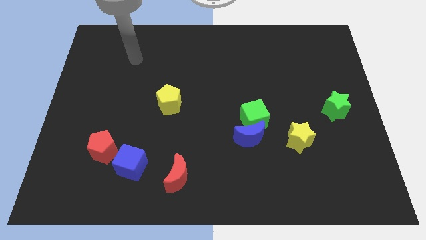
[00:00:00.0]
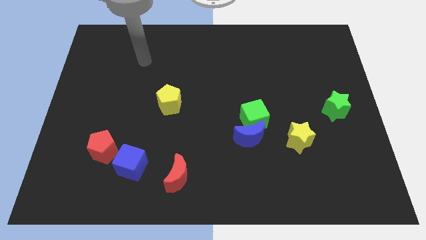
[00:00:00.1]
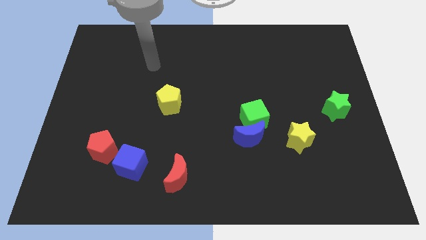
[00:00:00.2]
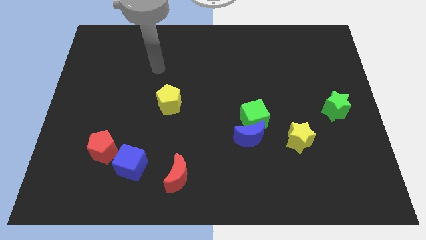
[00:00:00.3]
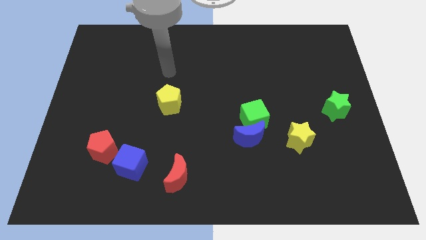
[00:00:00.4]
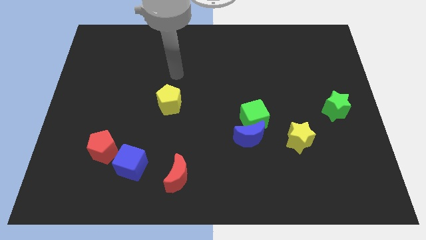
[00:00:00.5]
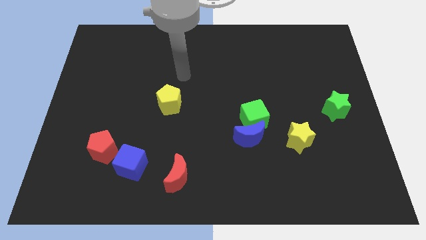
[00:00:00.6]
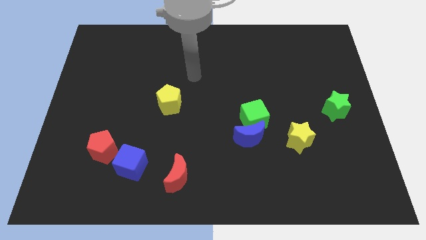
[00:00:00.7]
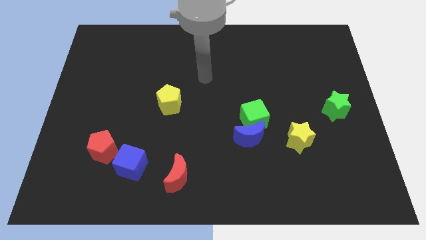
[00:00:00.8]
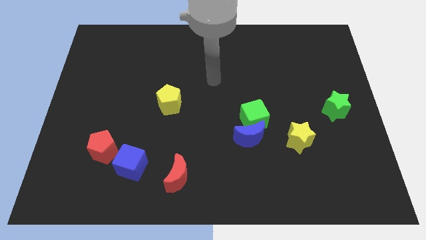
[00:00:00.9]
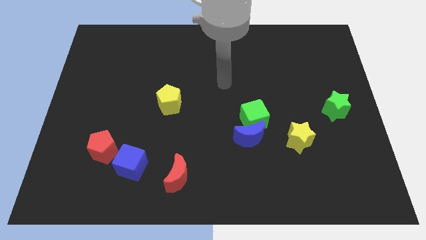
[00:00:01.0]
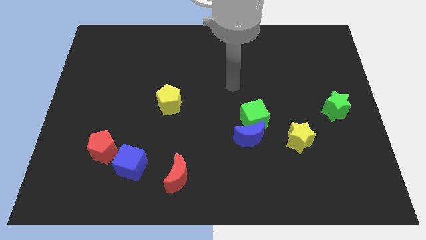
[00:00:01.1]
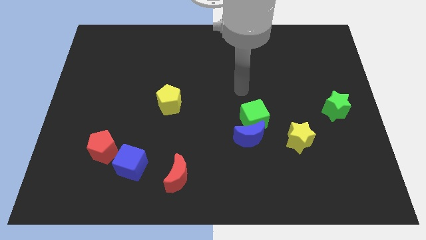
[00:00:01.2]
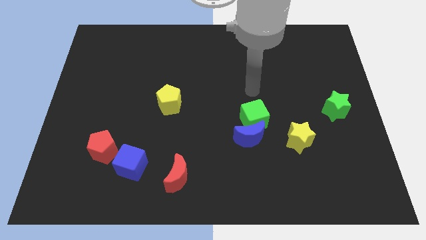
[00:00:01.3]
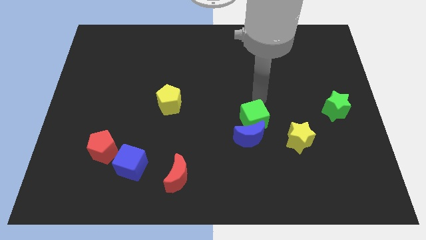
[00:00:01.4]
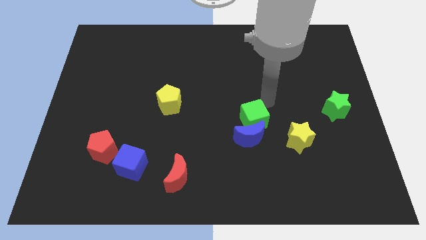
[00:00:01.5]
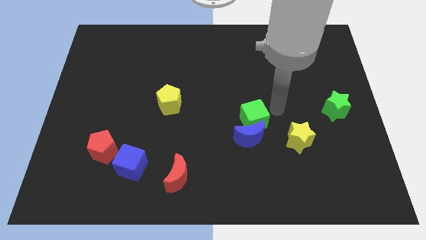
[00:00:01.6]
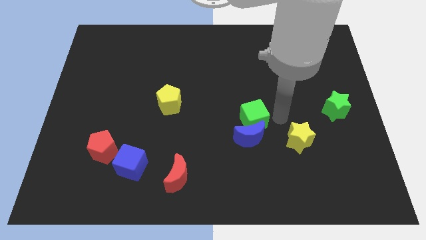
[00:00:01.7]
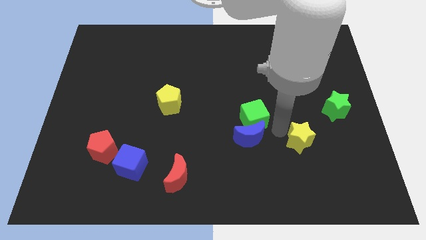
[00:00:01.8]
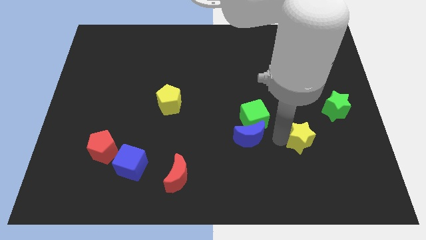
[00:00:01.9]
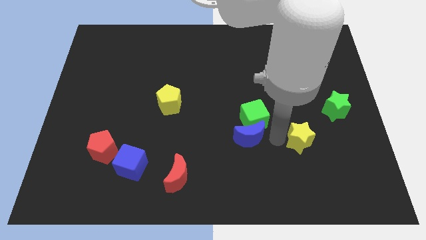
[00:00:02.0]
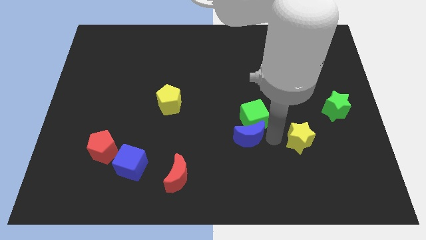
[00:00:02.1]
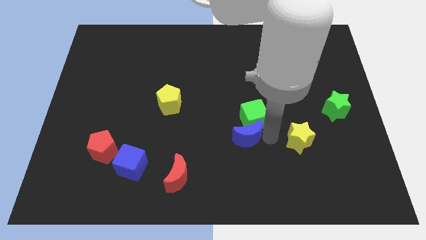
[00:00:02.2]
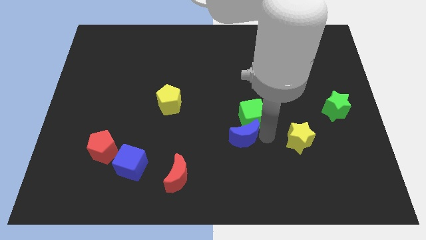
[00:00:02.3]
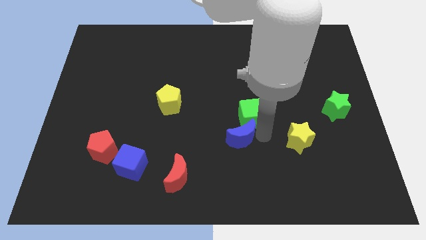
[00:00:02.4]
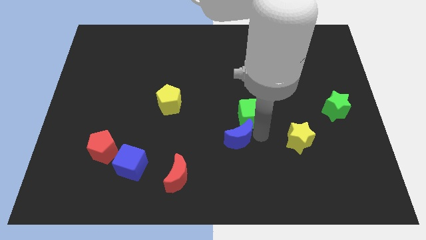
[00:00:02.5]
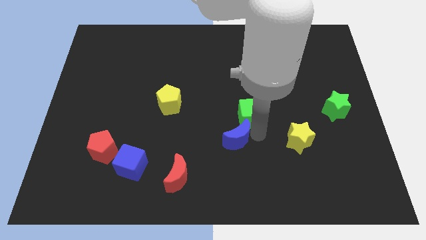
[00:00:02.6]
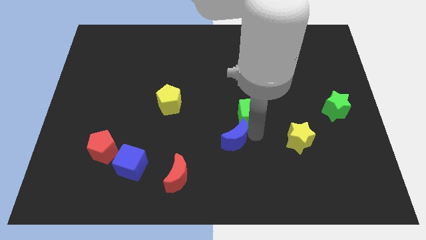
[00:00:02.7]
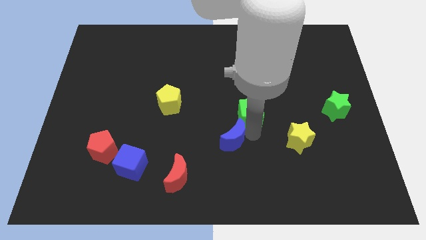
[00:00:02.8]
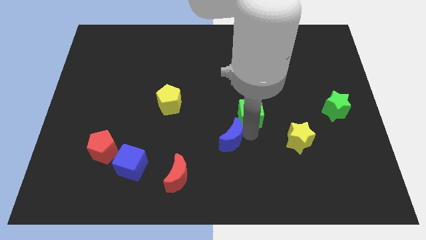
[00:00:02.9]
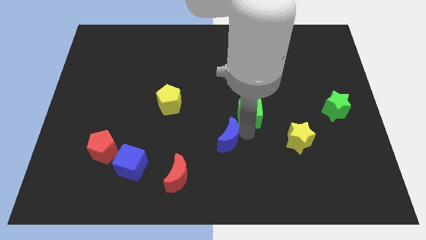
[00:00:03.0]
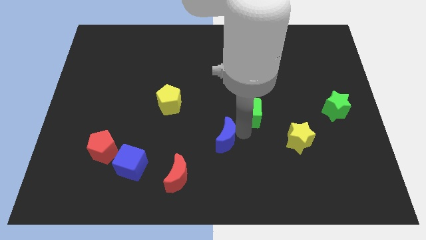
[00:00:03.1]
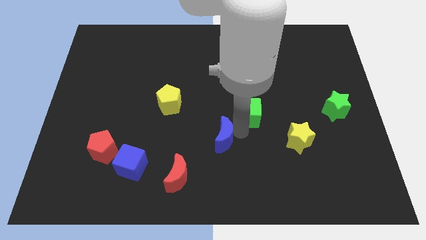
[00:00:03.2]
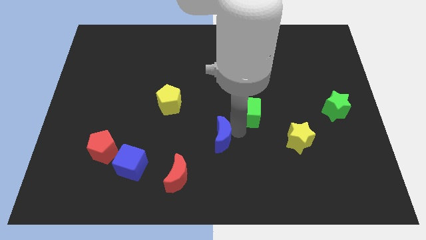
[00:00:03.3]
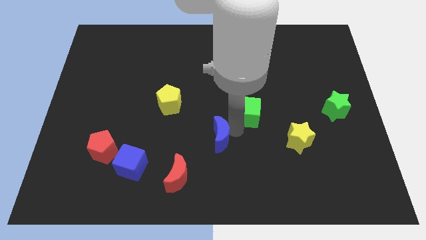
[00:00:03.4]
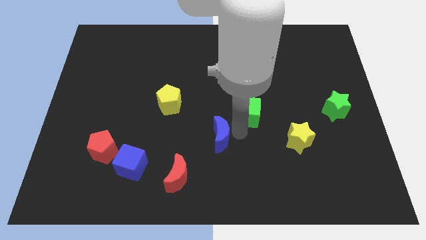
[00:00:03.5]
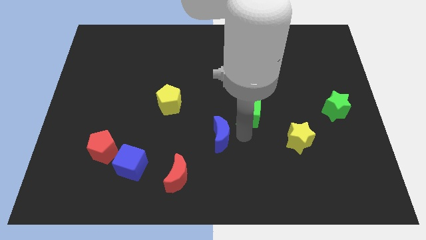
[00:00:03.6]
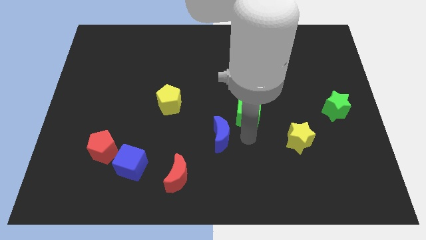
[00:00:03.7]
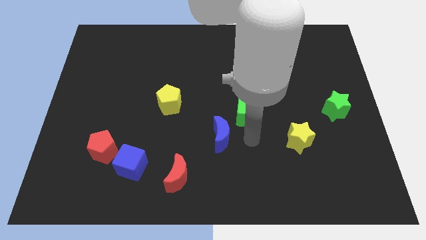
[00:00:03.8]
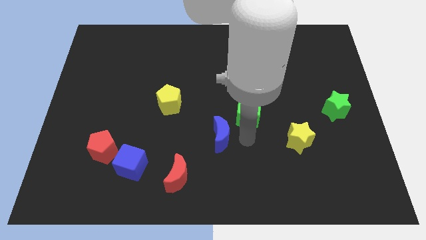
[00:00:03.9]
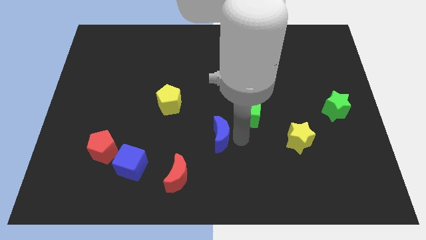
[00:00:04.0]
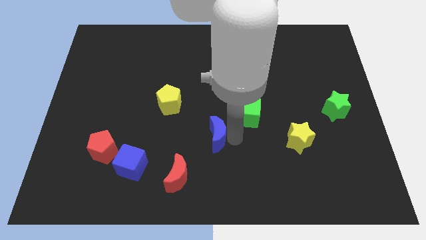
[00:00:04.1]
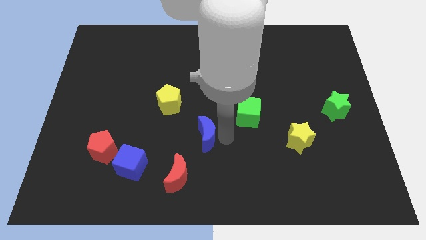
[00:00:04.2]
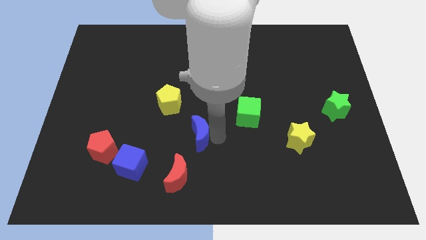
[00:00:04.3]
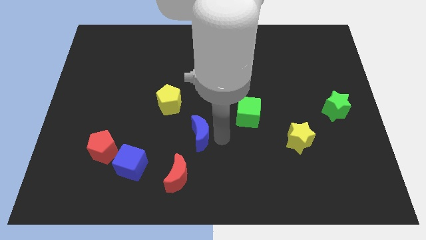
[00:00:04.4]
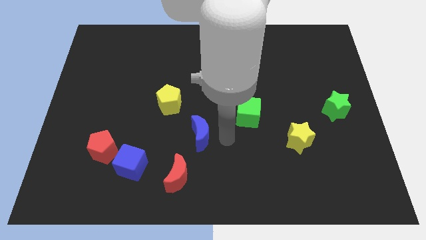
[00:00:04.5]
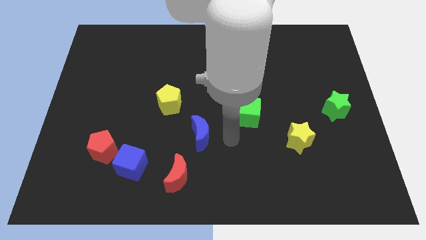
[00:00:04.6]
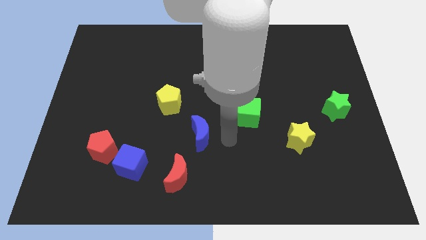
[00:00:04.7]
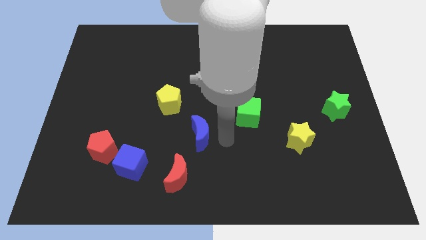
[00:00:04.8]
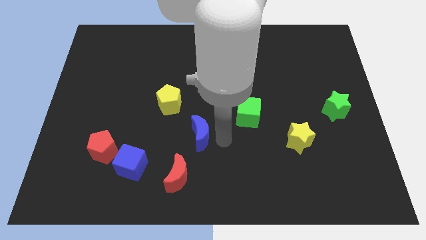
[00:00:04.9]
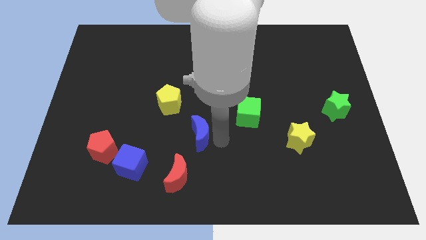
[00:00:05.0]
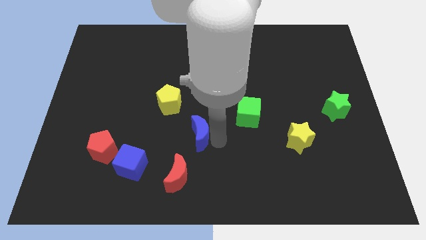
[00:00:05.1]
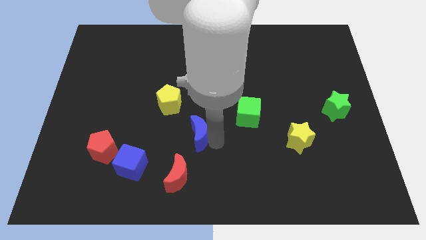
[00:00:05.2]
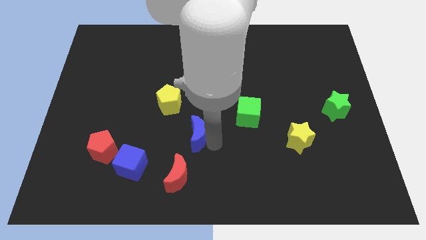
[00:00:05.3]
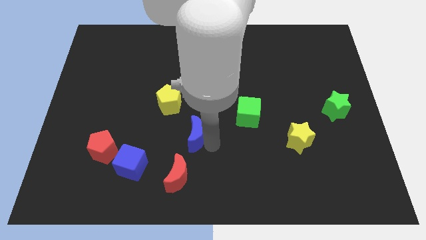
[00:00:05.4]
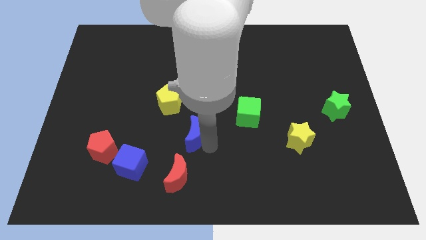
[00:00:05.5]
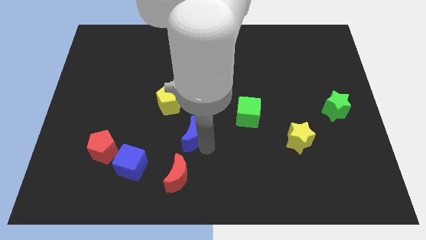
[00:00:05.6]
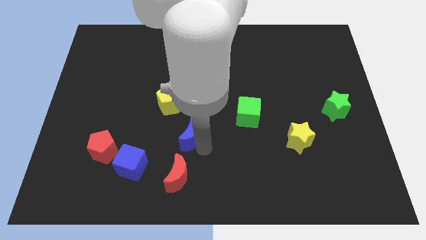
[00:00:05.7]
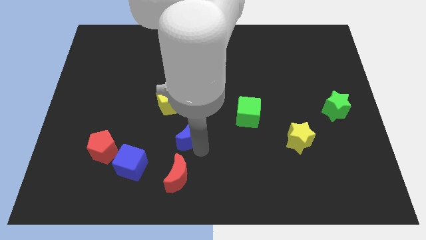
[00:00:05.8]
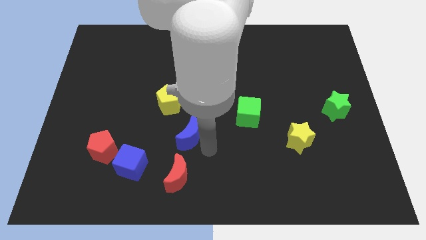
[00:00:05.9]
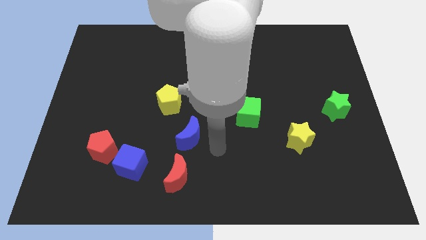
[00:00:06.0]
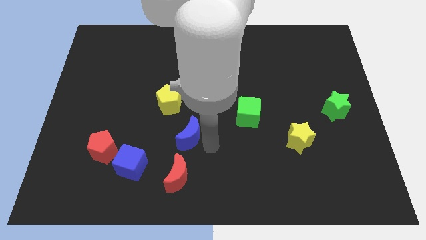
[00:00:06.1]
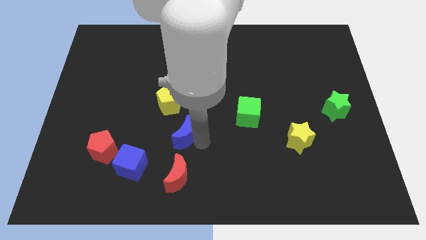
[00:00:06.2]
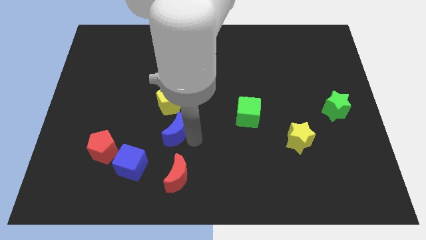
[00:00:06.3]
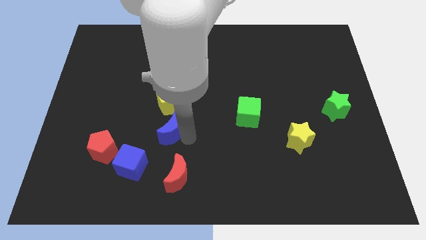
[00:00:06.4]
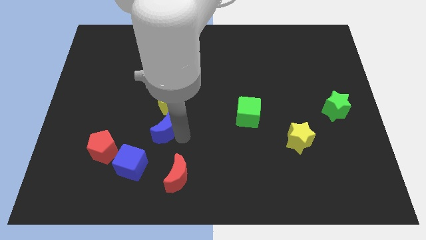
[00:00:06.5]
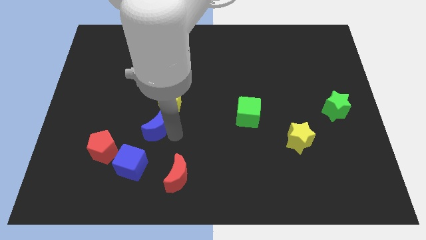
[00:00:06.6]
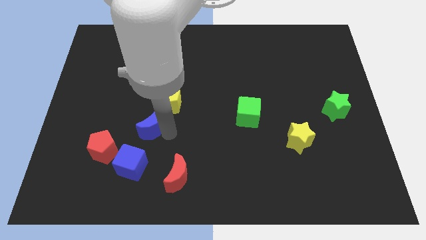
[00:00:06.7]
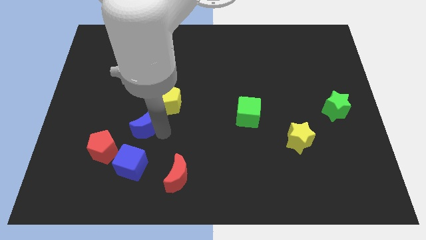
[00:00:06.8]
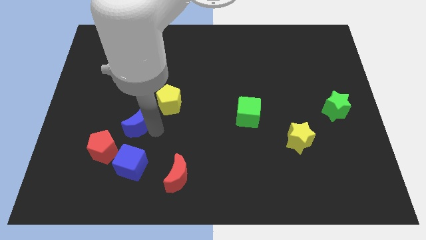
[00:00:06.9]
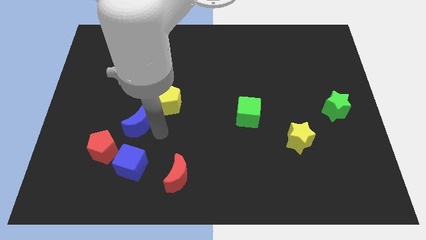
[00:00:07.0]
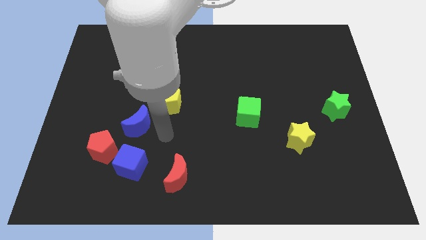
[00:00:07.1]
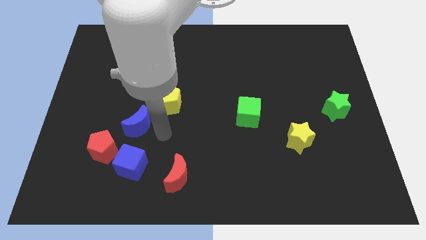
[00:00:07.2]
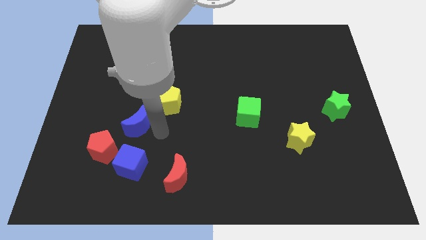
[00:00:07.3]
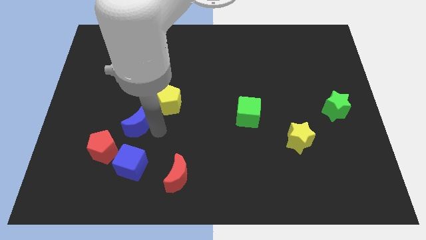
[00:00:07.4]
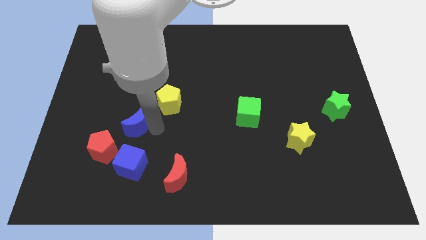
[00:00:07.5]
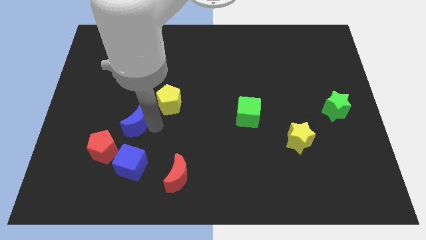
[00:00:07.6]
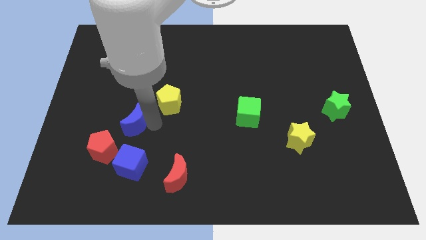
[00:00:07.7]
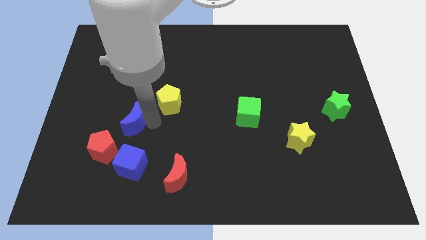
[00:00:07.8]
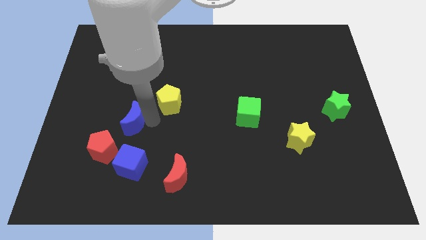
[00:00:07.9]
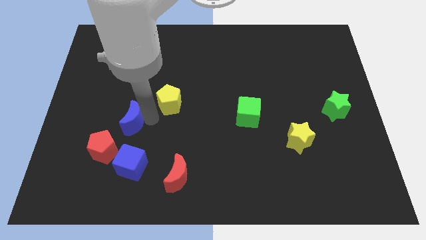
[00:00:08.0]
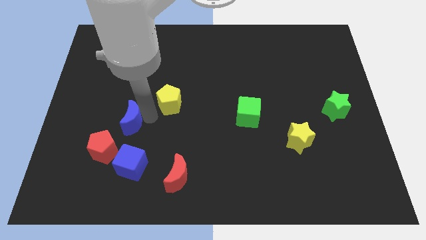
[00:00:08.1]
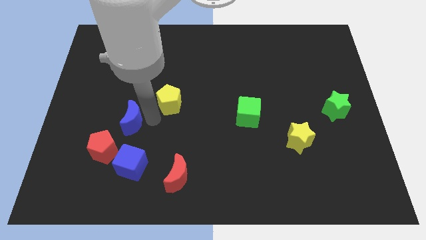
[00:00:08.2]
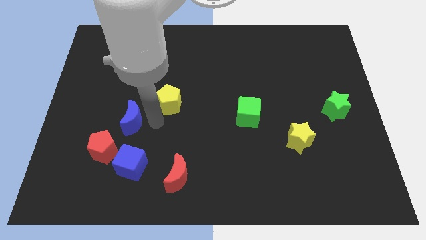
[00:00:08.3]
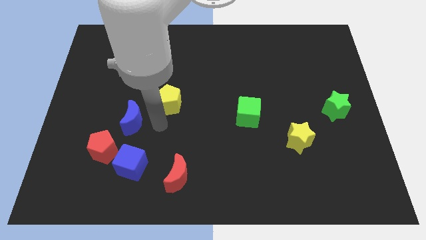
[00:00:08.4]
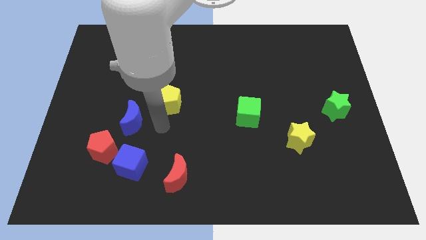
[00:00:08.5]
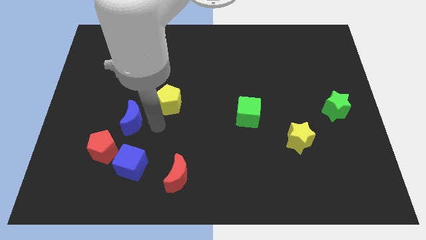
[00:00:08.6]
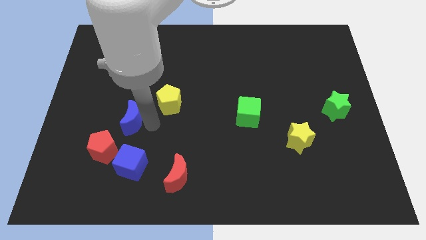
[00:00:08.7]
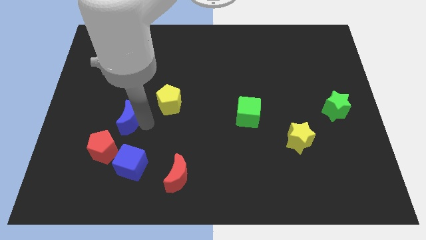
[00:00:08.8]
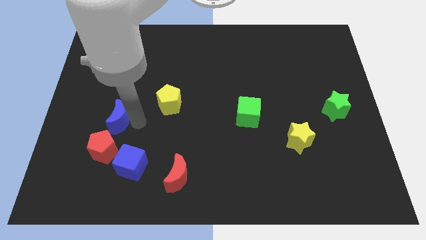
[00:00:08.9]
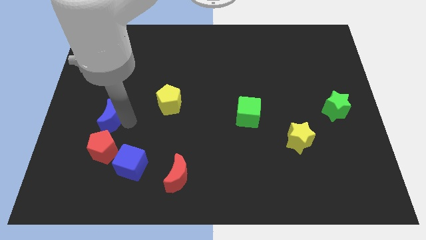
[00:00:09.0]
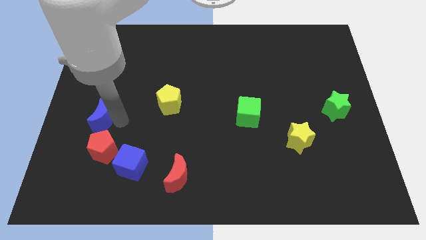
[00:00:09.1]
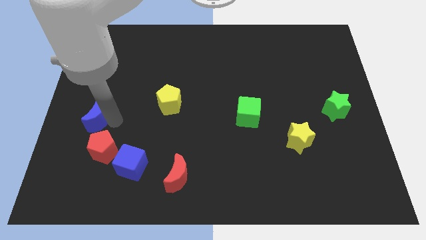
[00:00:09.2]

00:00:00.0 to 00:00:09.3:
push the blue moon to the center left
